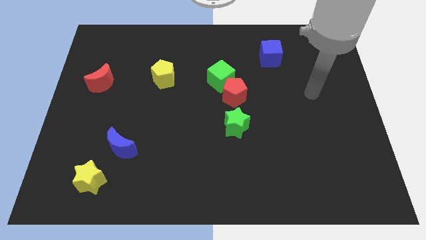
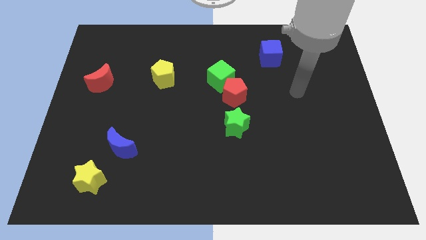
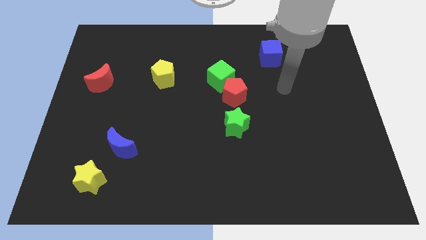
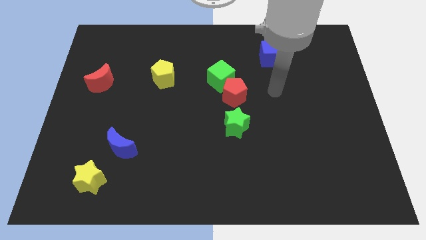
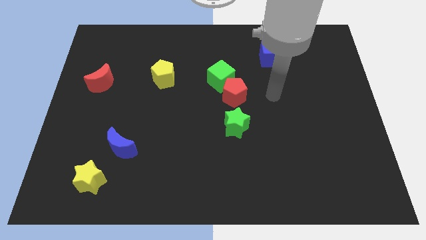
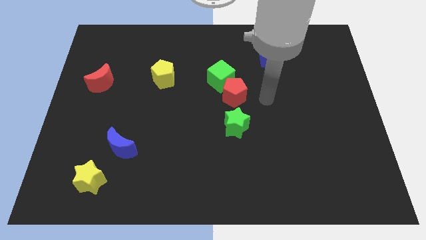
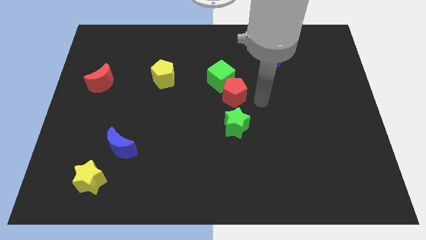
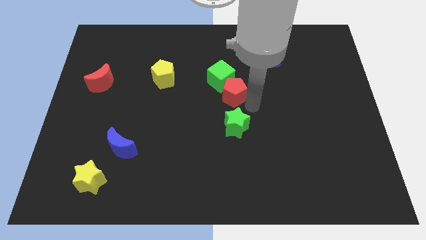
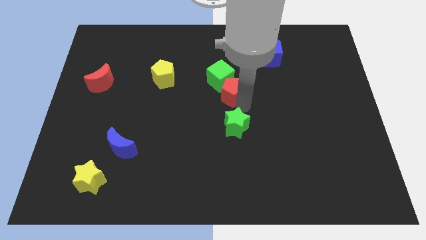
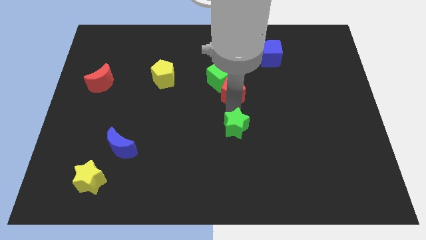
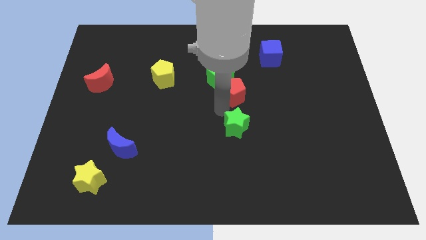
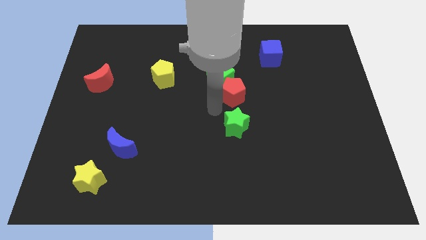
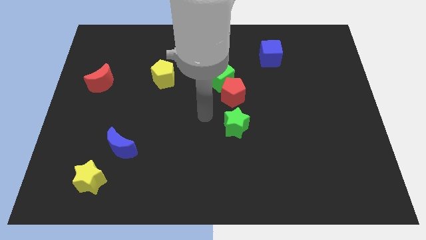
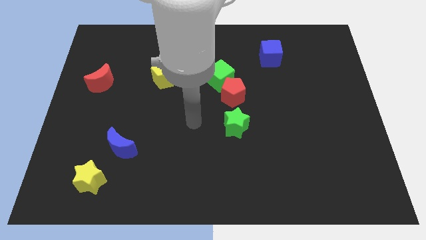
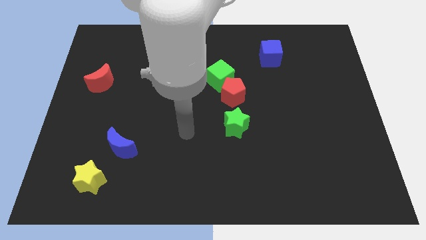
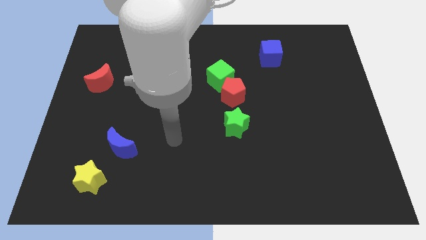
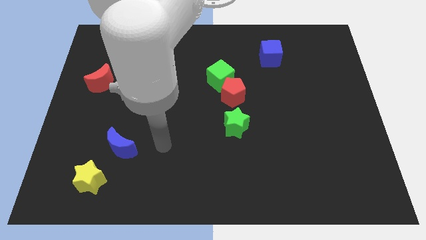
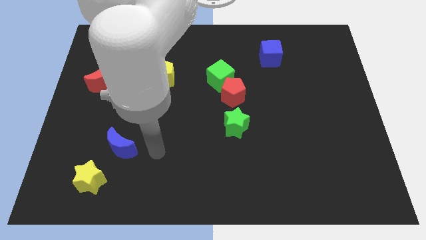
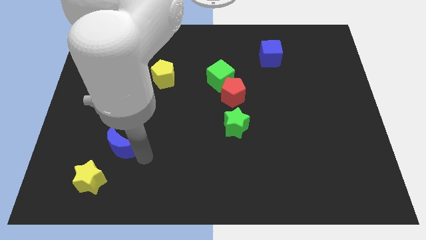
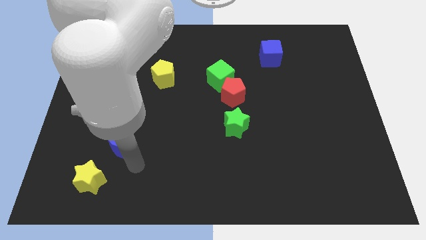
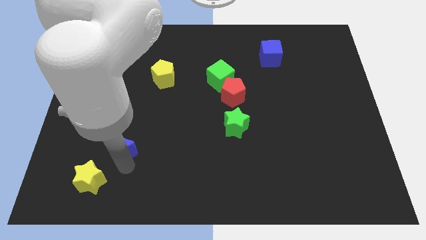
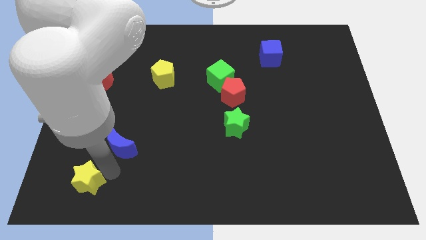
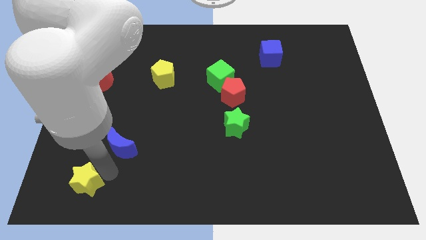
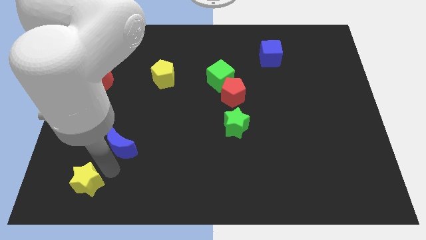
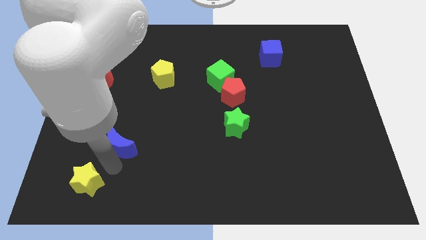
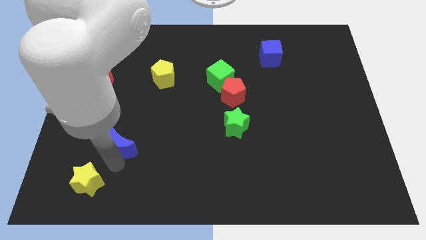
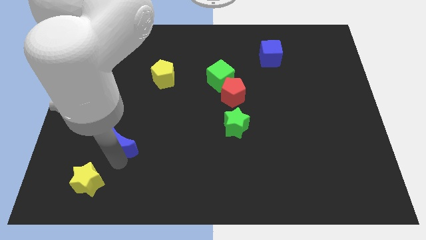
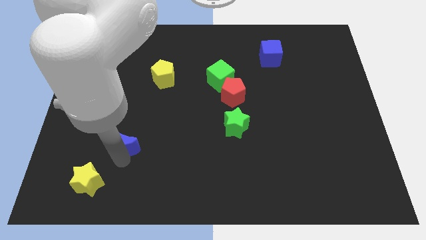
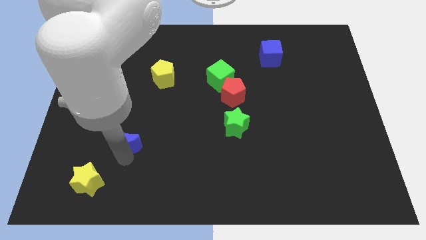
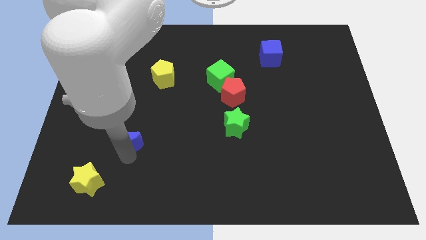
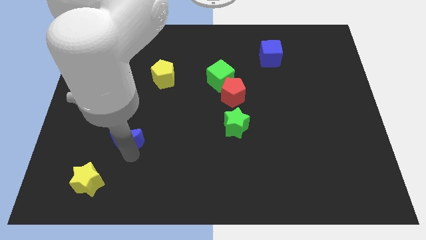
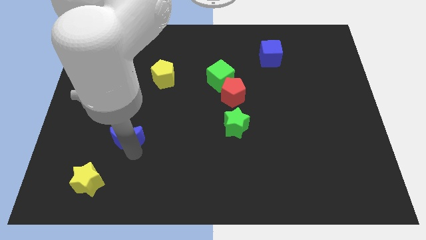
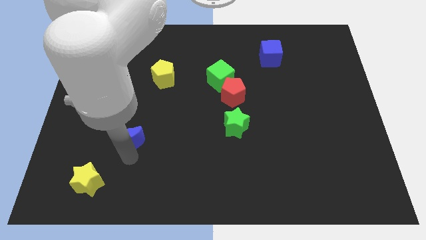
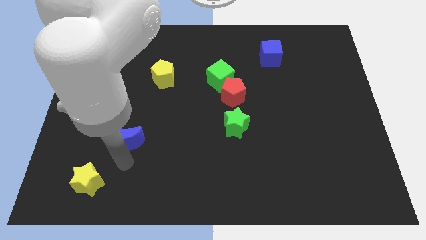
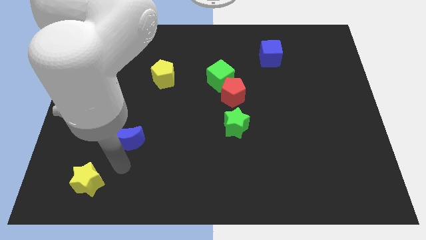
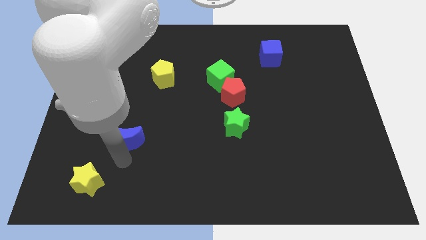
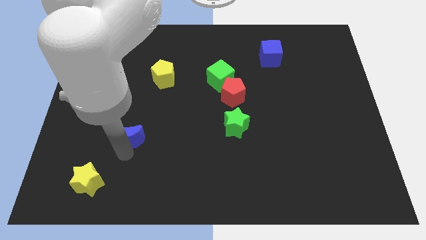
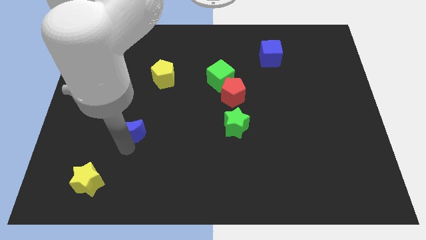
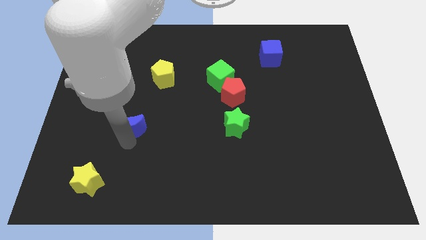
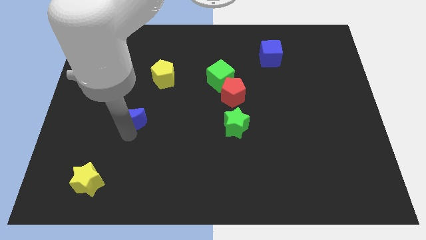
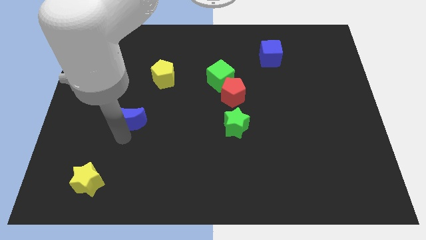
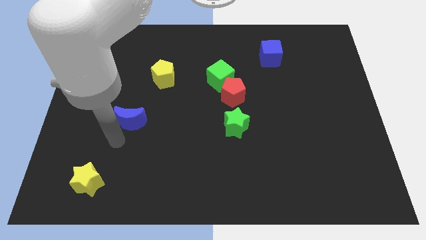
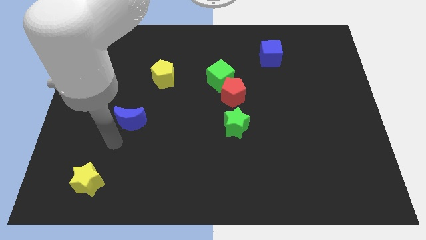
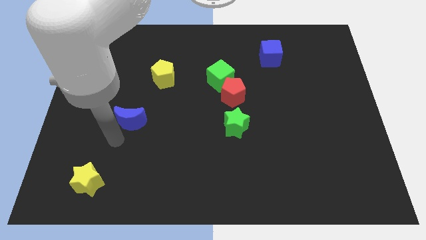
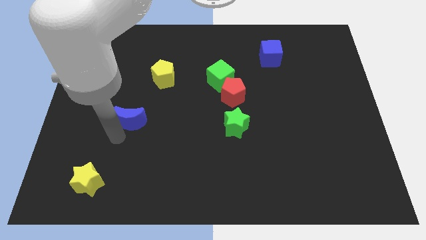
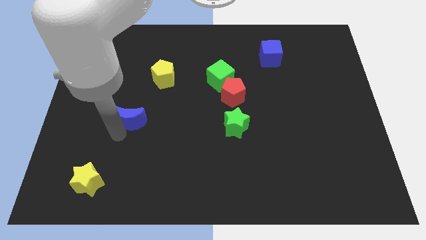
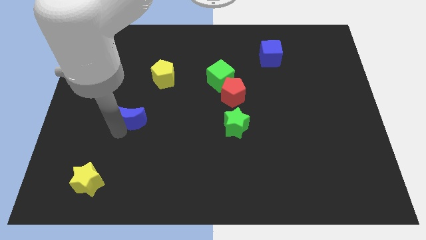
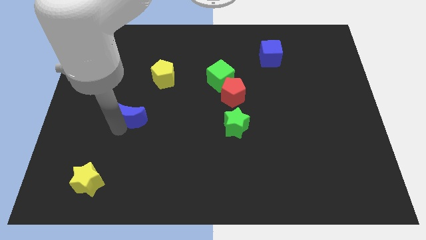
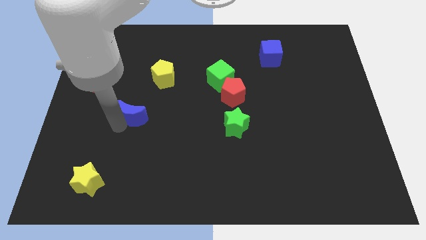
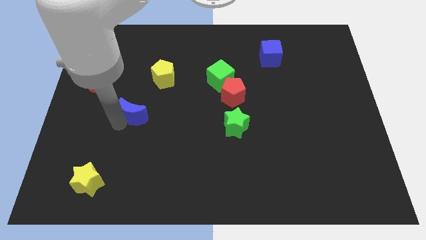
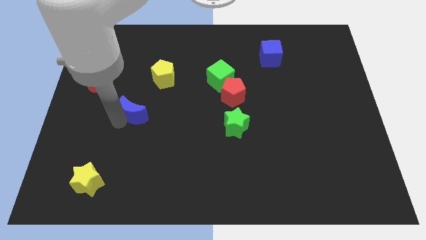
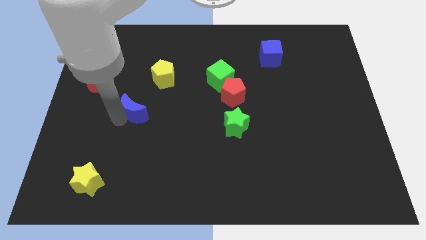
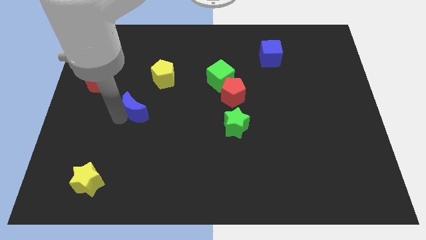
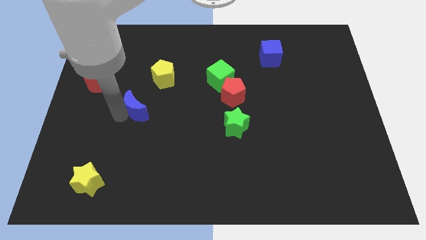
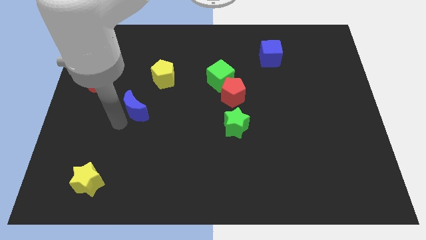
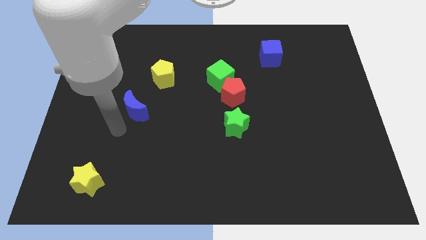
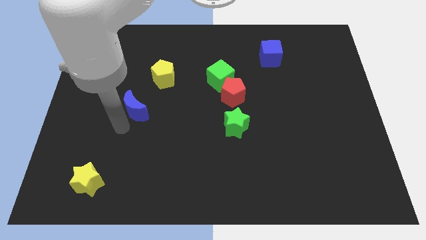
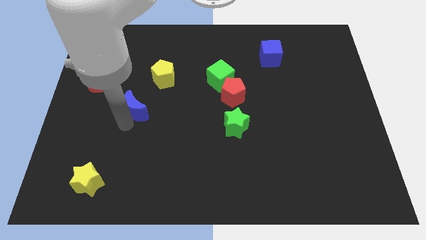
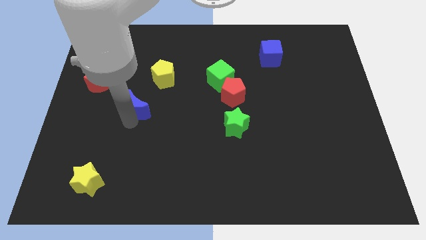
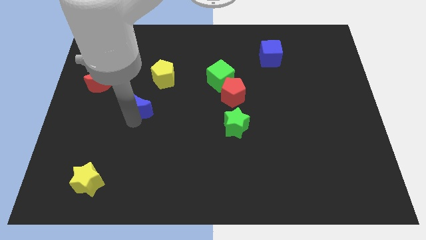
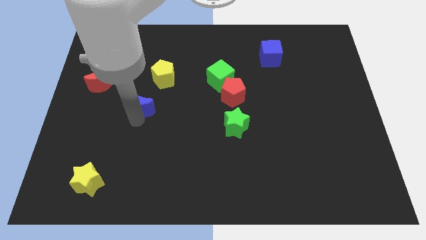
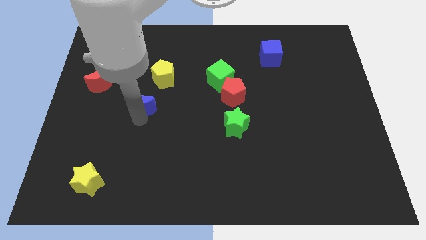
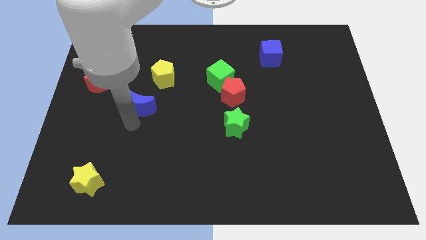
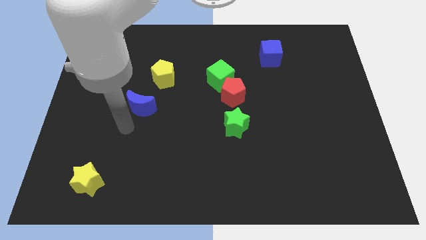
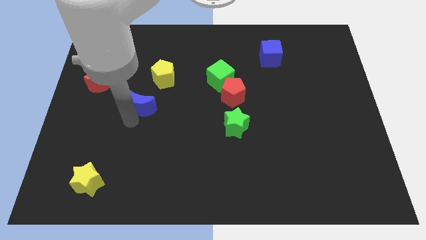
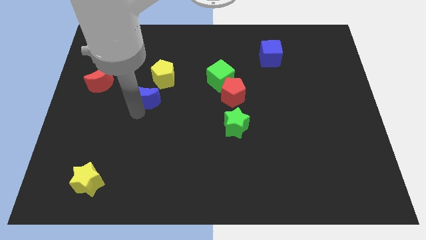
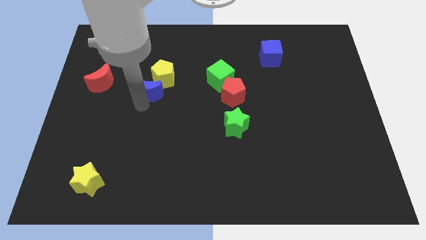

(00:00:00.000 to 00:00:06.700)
move the blue moon towards the yellow pentagon

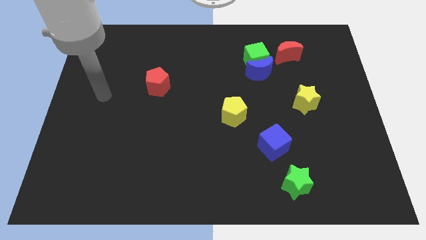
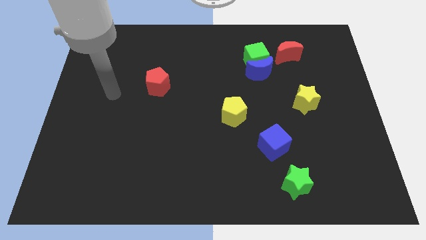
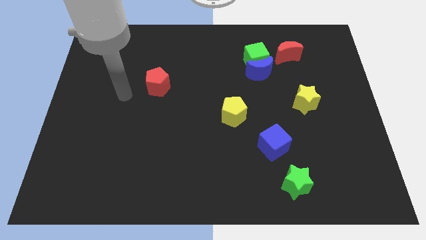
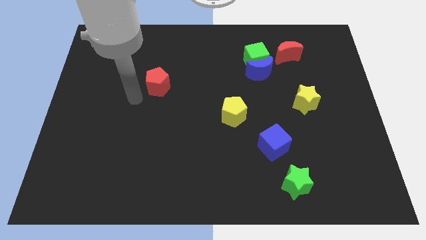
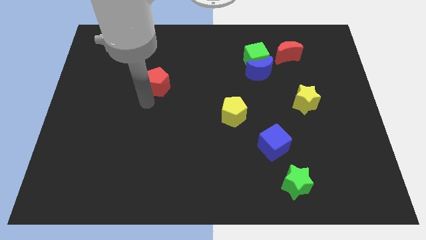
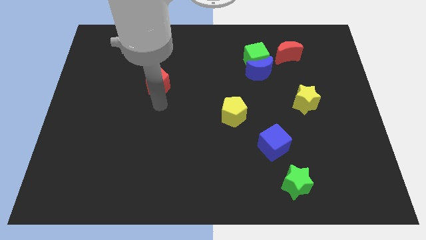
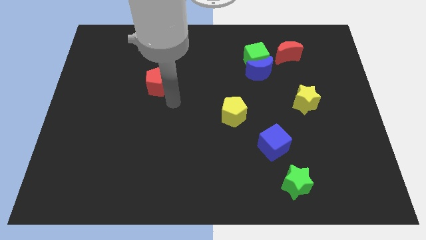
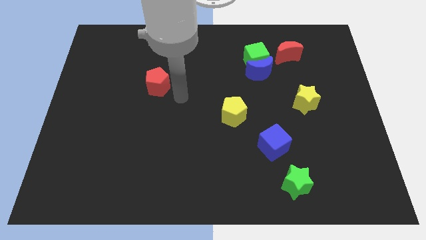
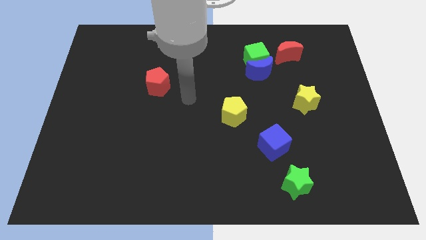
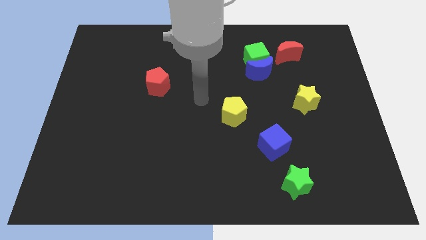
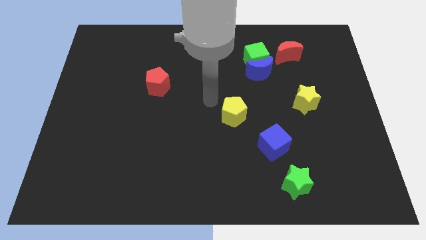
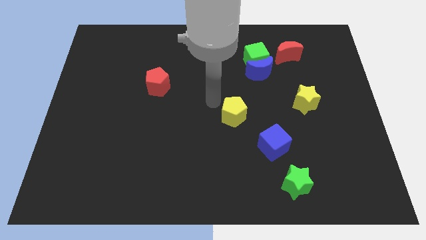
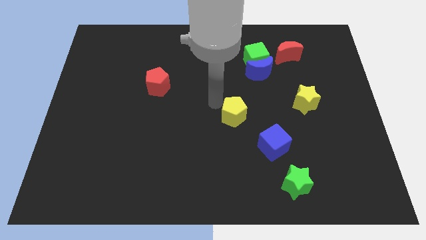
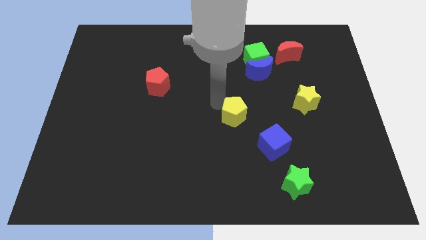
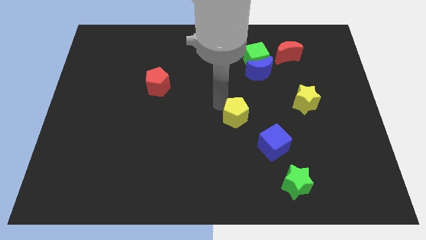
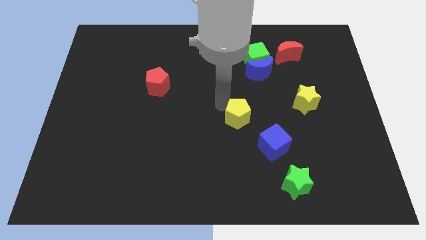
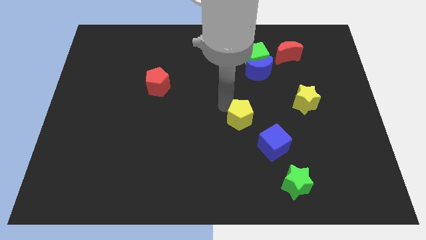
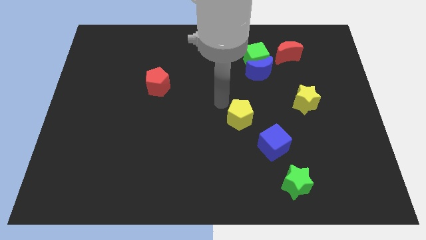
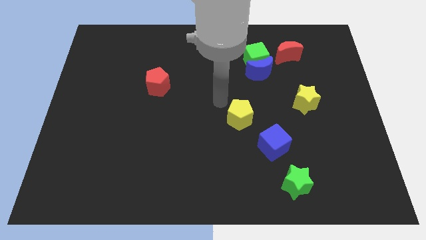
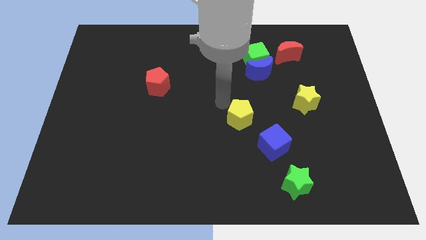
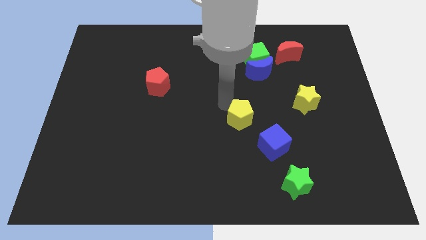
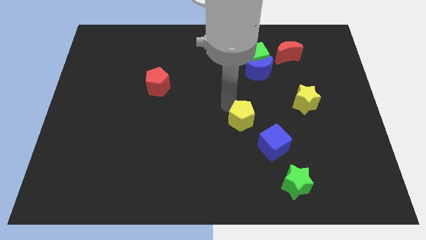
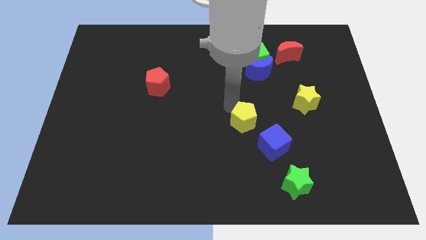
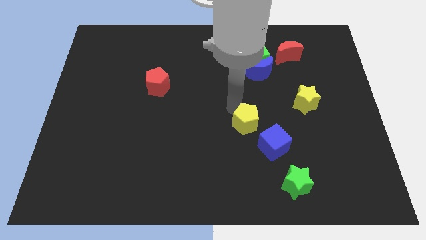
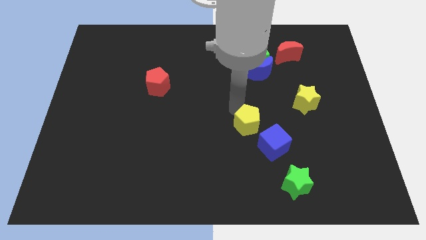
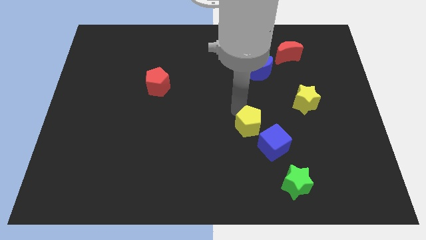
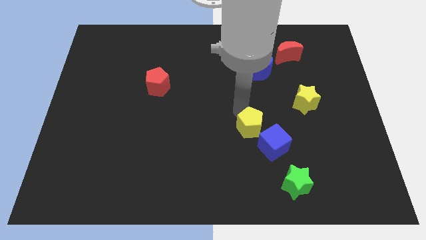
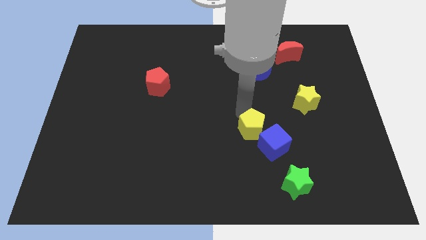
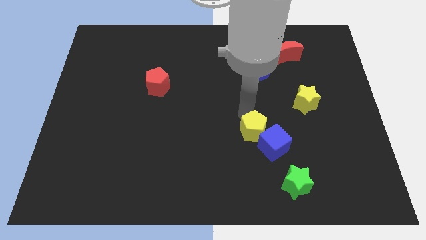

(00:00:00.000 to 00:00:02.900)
move the yellow pentagon to the blue cube
